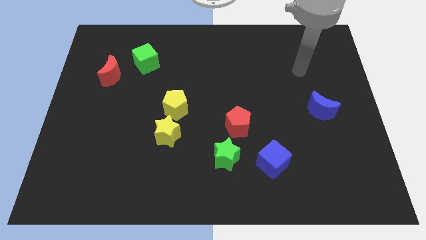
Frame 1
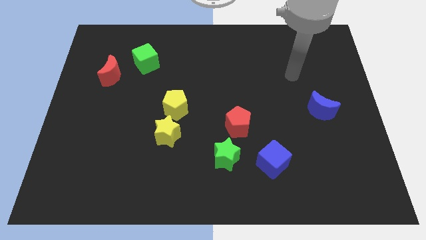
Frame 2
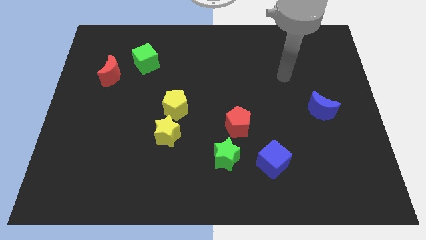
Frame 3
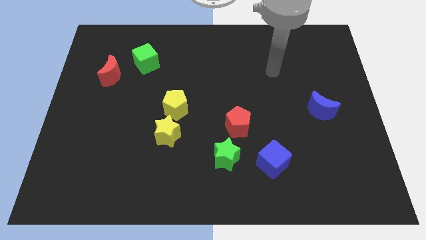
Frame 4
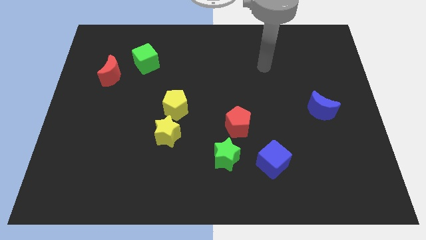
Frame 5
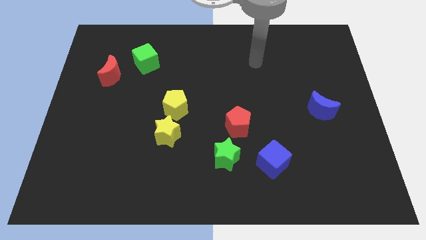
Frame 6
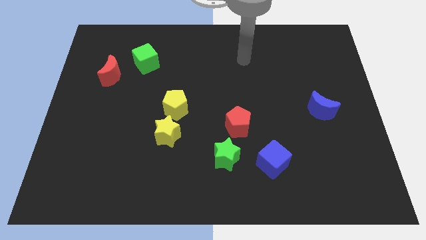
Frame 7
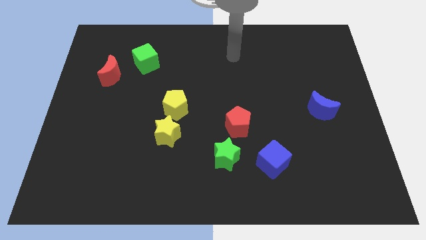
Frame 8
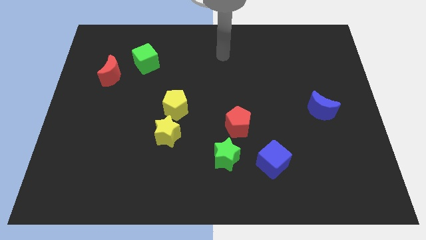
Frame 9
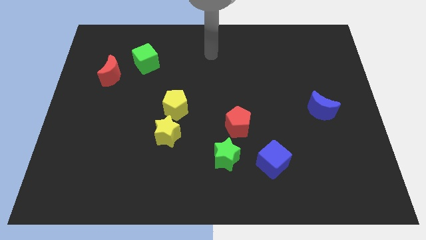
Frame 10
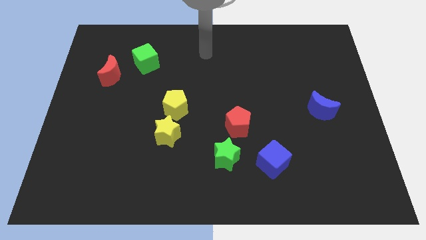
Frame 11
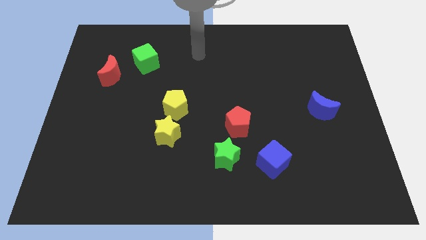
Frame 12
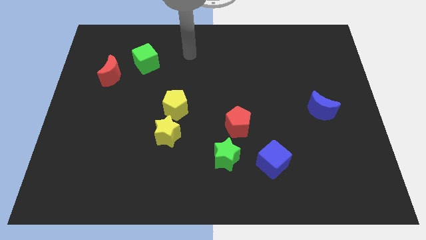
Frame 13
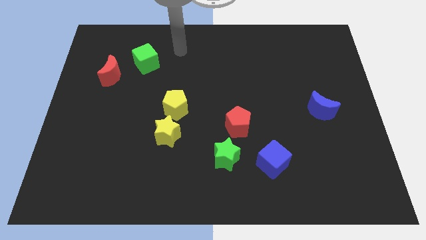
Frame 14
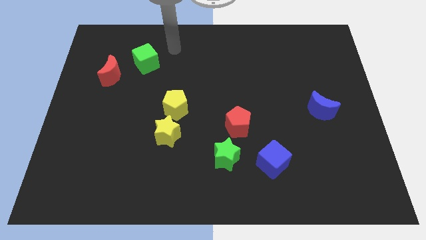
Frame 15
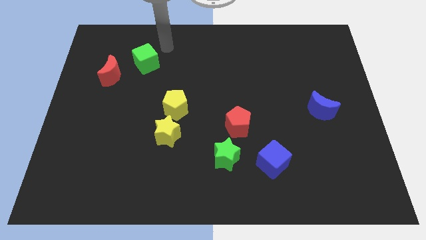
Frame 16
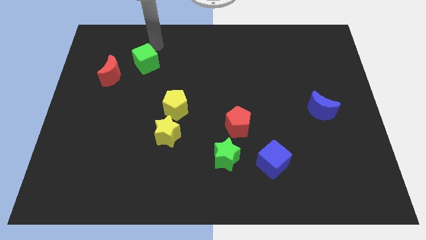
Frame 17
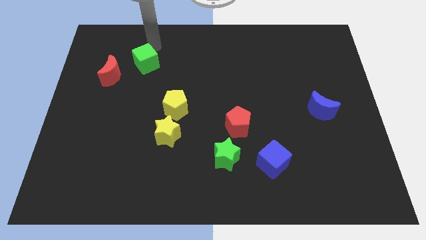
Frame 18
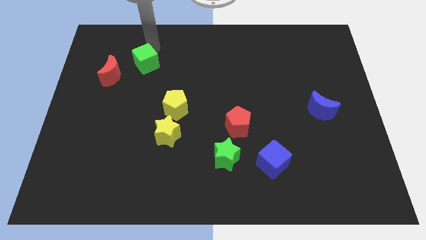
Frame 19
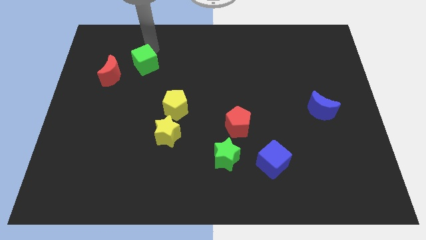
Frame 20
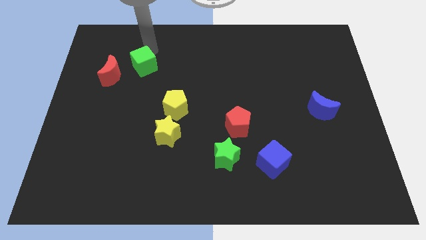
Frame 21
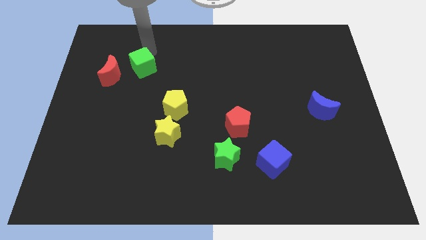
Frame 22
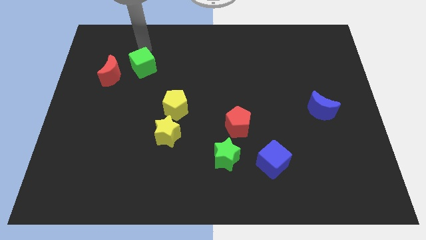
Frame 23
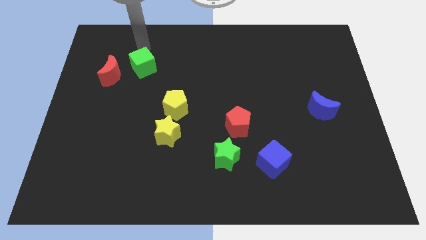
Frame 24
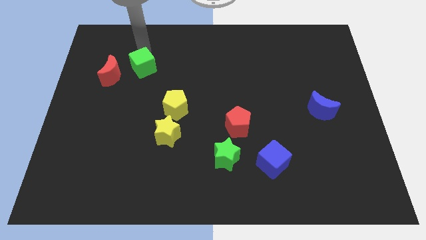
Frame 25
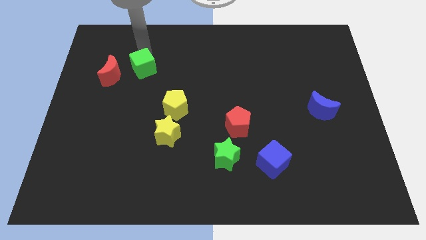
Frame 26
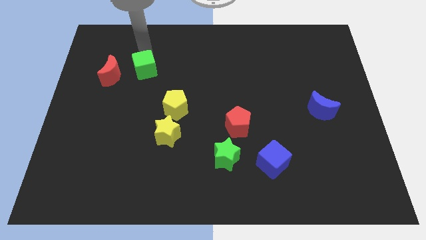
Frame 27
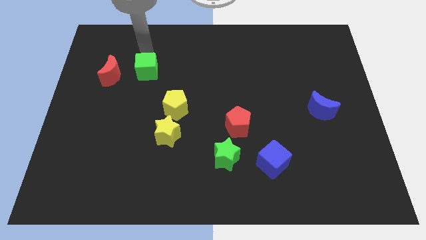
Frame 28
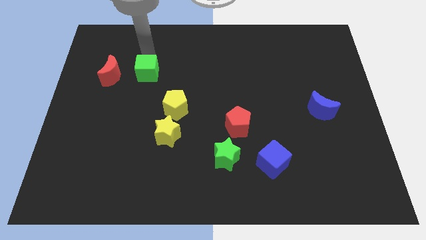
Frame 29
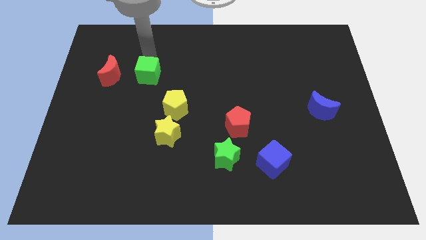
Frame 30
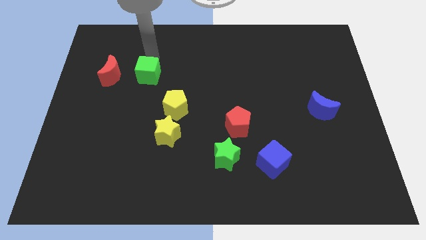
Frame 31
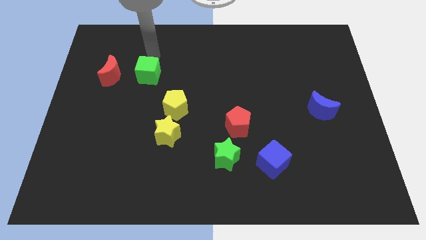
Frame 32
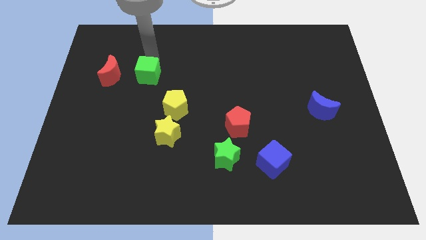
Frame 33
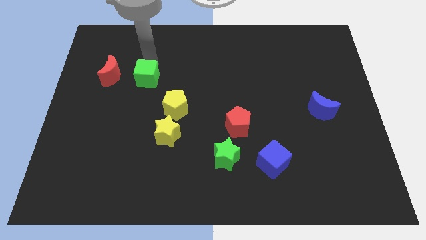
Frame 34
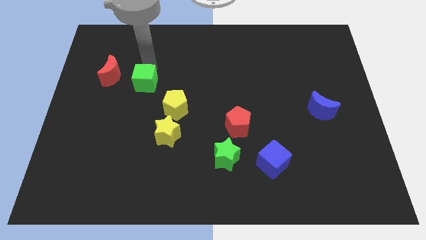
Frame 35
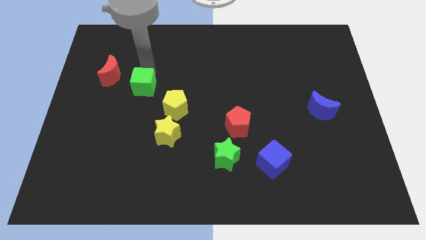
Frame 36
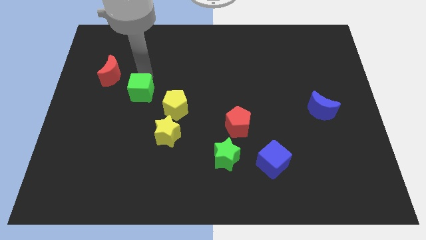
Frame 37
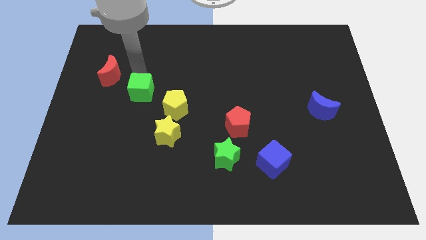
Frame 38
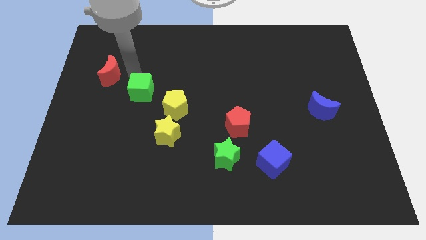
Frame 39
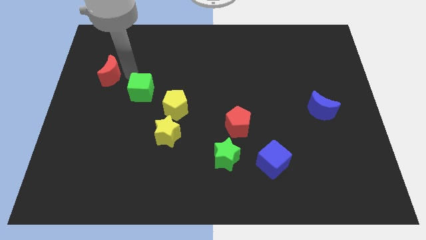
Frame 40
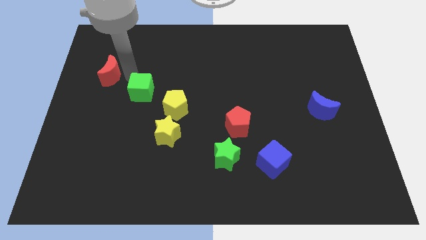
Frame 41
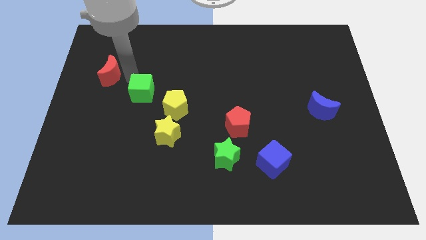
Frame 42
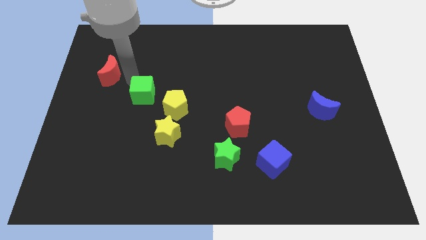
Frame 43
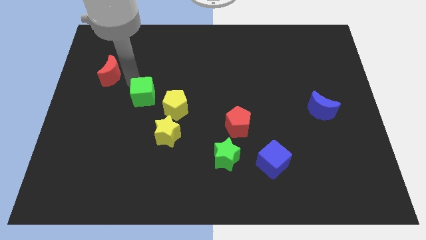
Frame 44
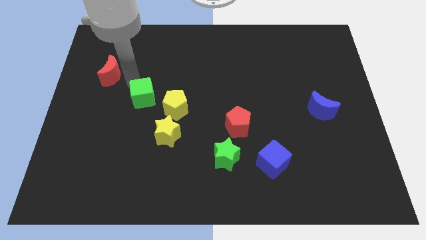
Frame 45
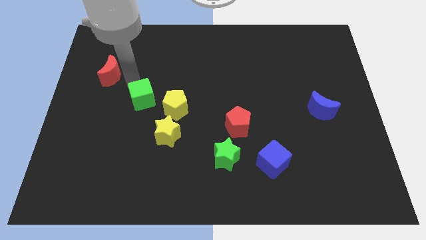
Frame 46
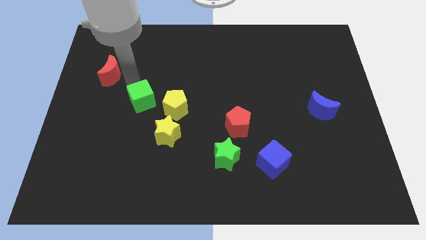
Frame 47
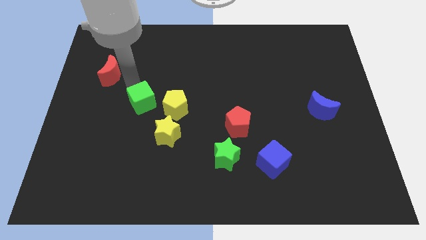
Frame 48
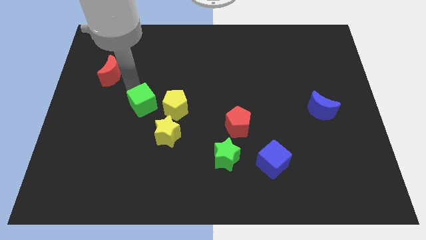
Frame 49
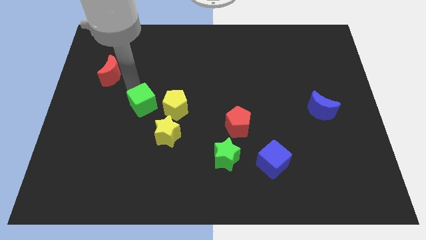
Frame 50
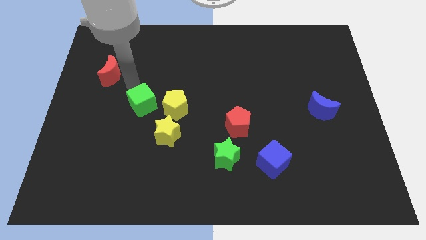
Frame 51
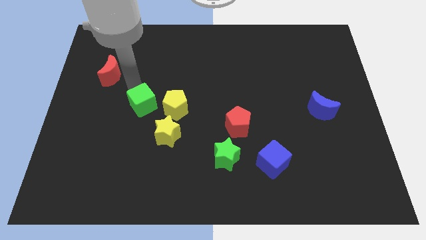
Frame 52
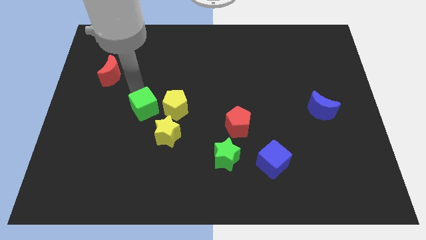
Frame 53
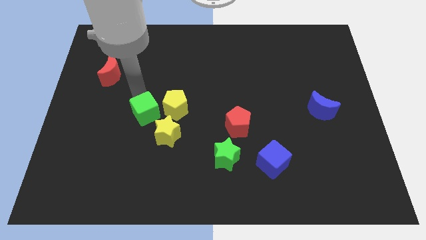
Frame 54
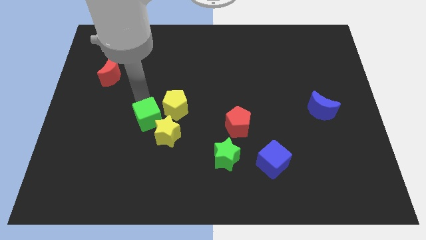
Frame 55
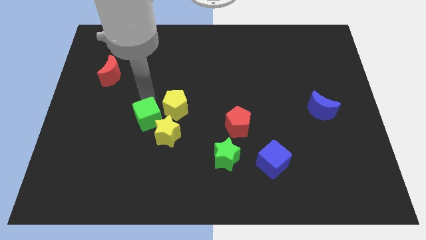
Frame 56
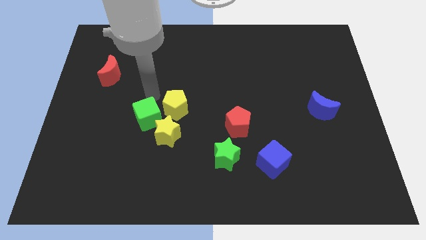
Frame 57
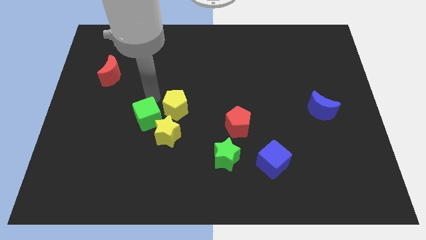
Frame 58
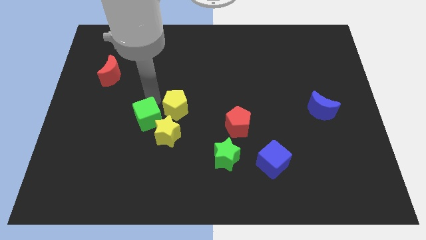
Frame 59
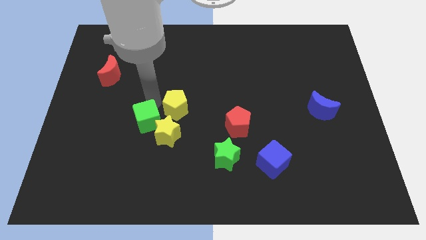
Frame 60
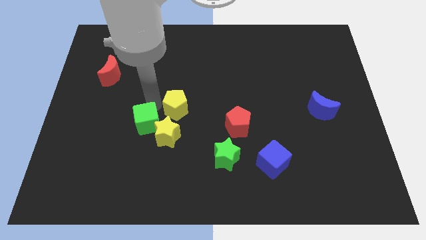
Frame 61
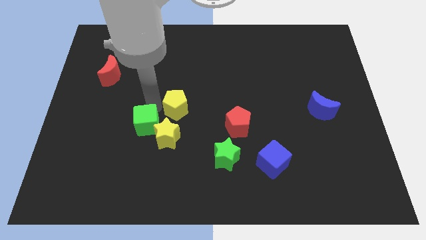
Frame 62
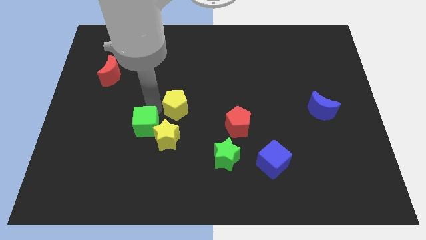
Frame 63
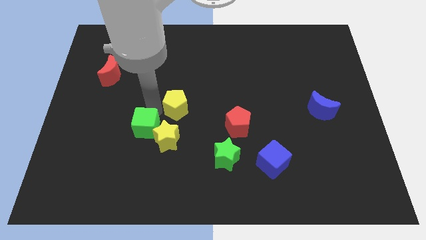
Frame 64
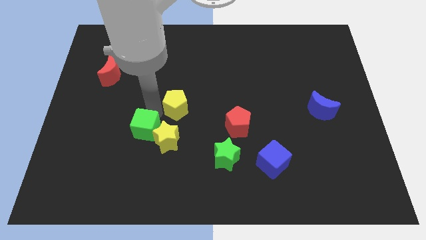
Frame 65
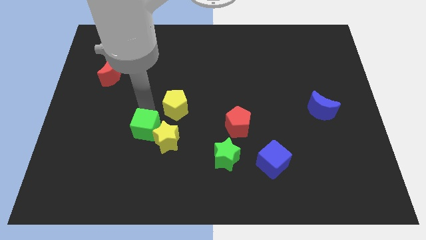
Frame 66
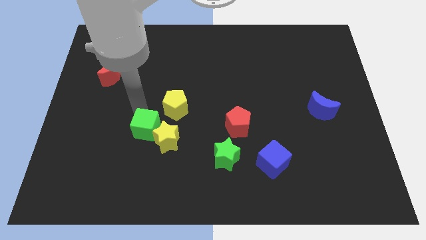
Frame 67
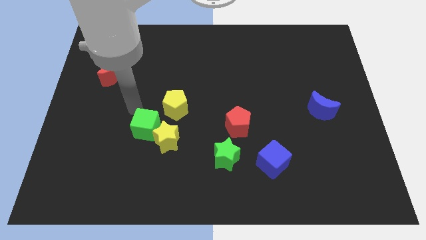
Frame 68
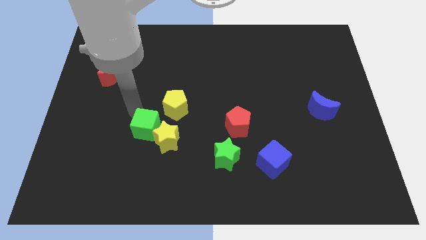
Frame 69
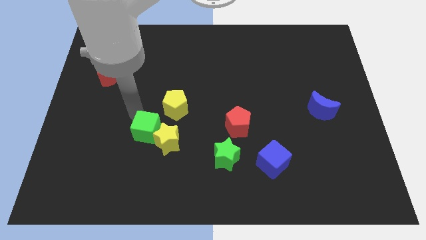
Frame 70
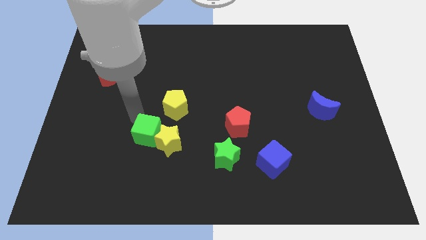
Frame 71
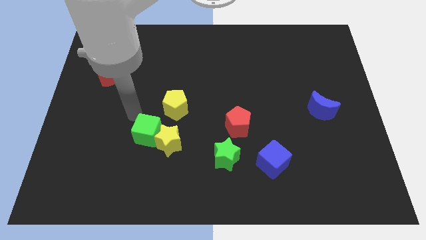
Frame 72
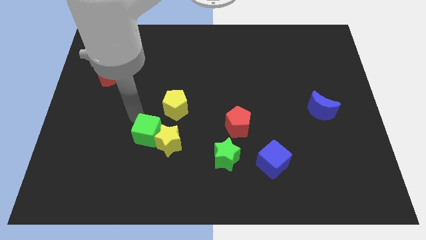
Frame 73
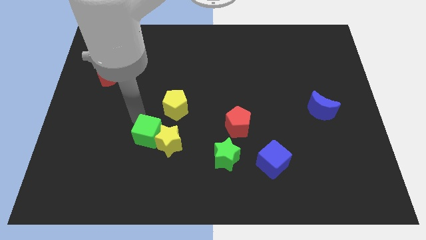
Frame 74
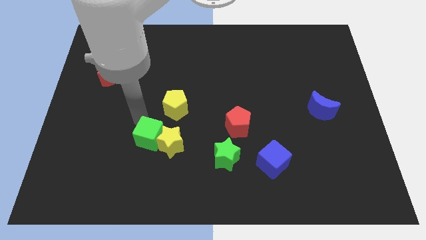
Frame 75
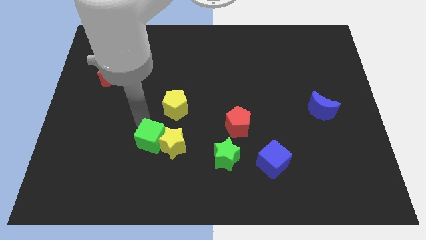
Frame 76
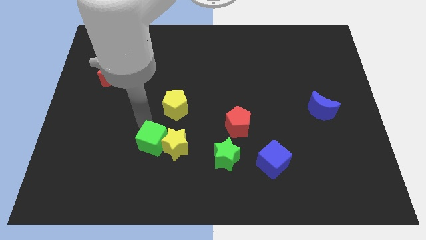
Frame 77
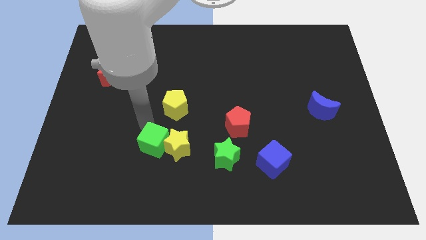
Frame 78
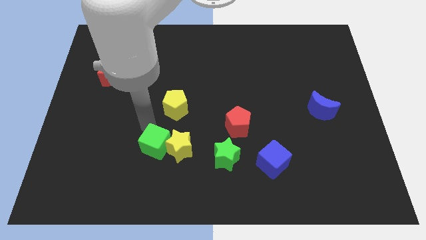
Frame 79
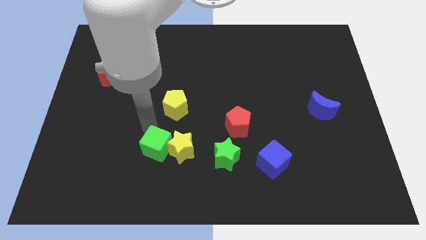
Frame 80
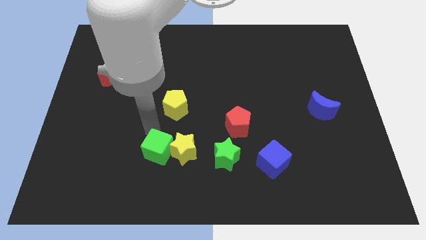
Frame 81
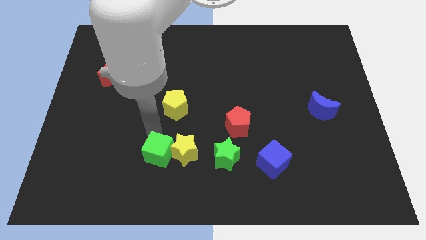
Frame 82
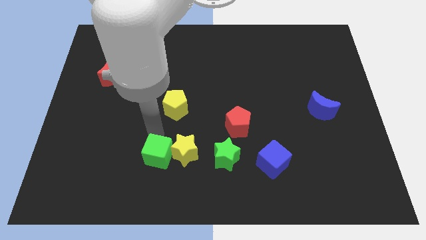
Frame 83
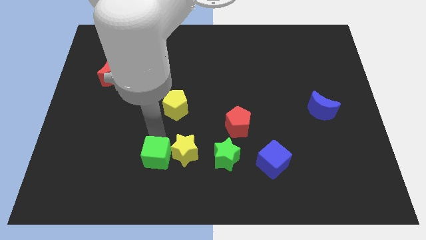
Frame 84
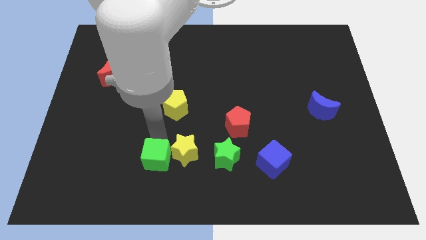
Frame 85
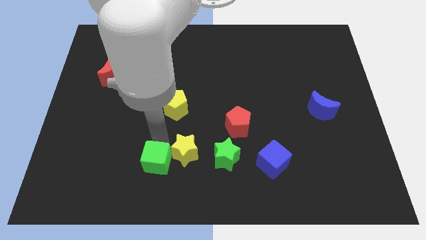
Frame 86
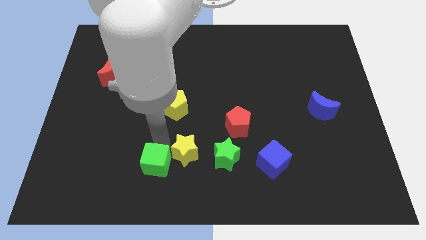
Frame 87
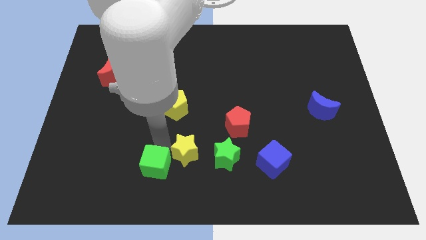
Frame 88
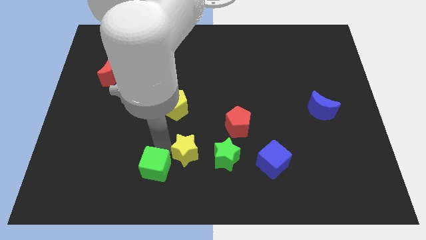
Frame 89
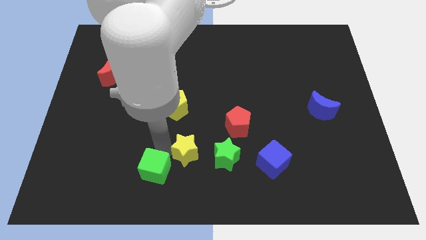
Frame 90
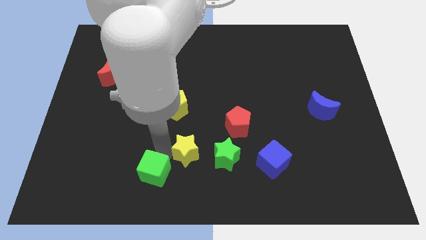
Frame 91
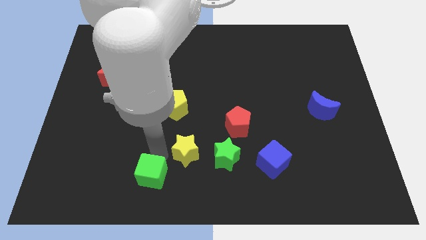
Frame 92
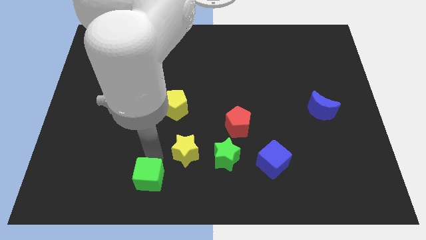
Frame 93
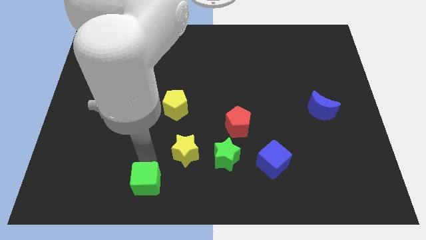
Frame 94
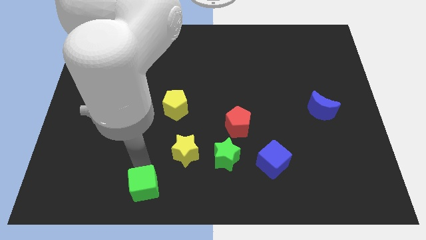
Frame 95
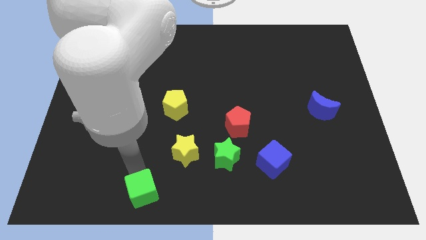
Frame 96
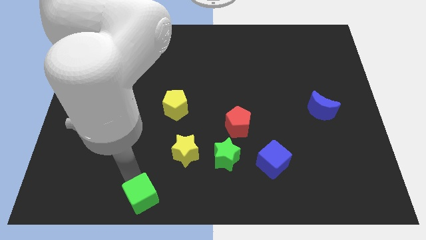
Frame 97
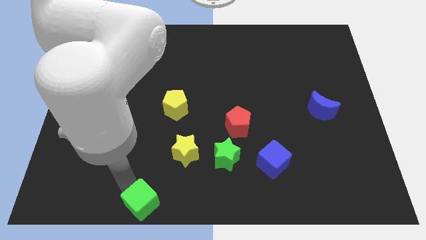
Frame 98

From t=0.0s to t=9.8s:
move the green cube to the bottom
